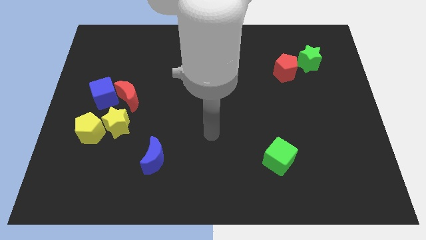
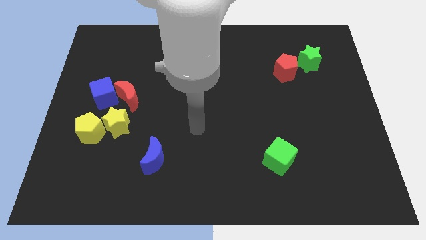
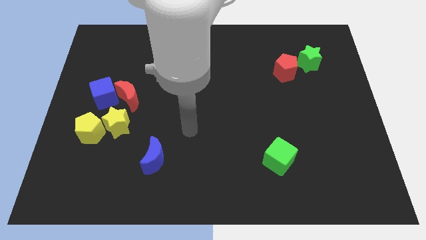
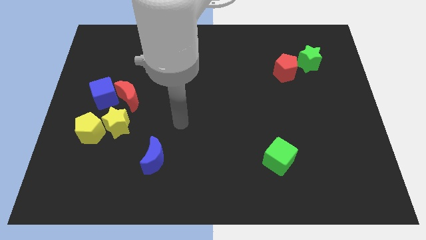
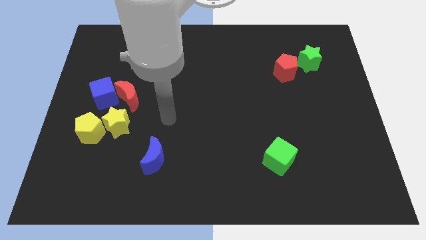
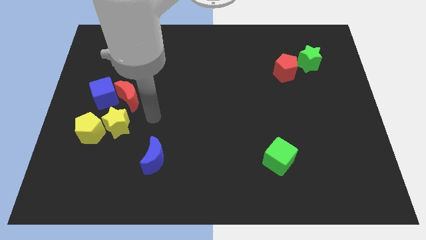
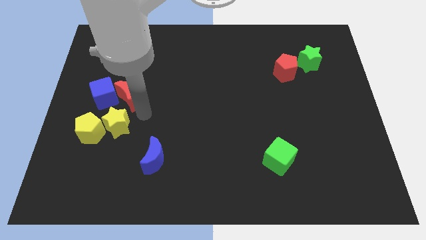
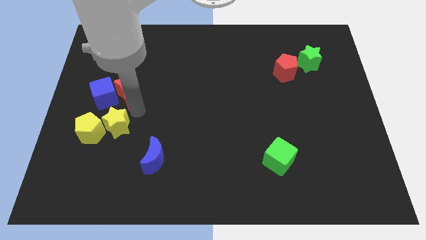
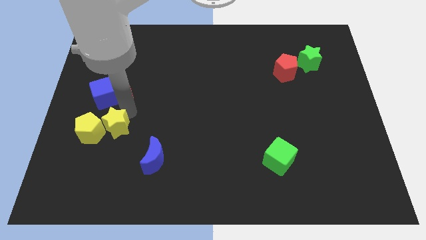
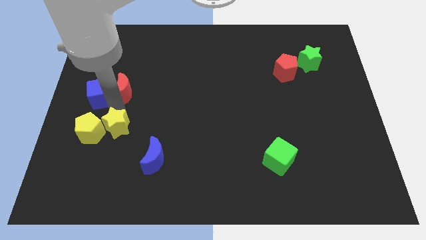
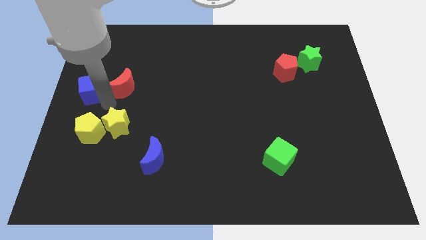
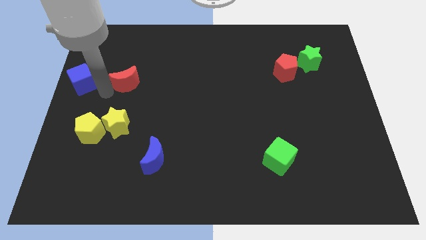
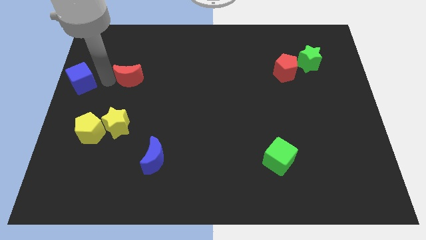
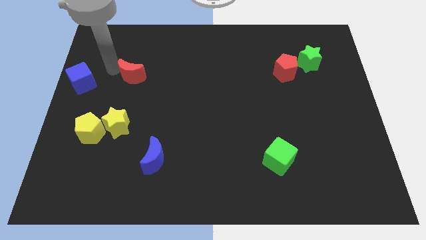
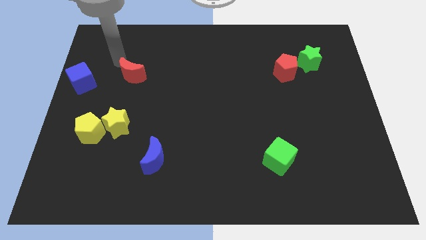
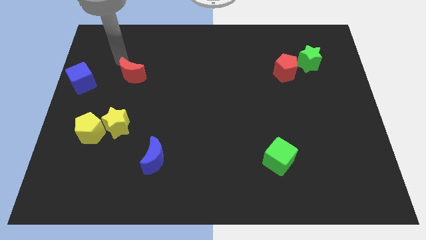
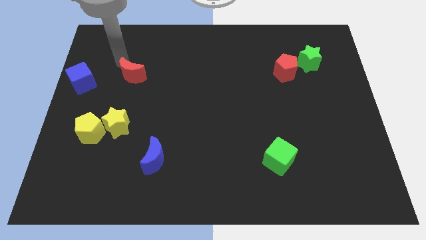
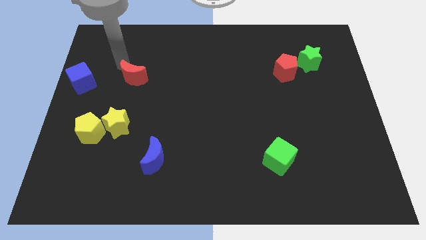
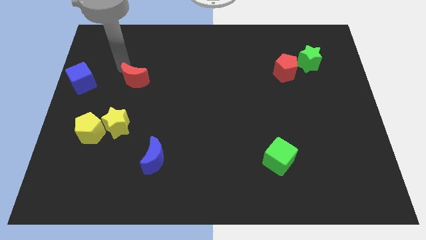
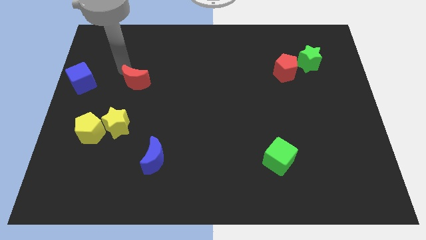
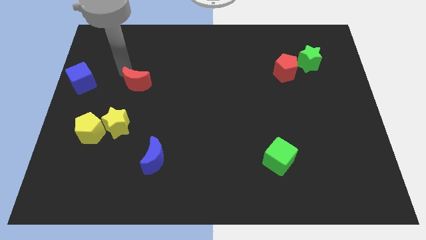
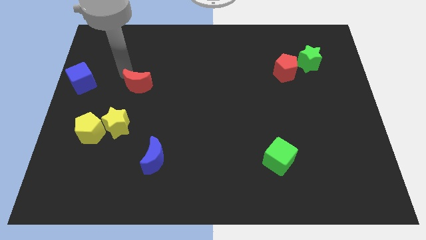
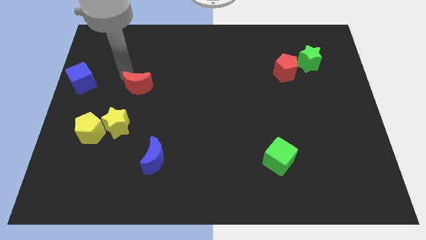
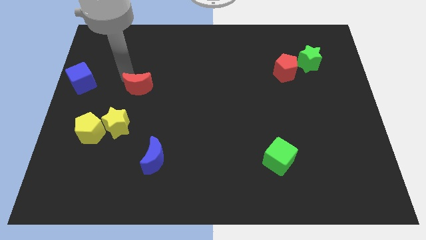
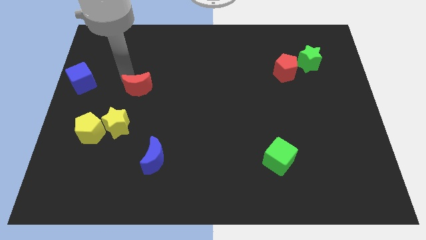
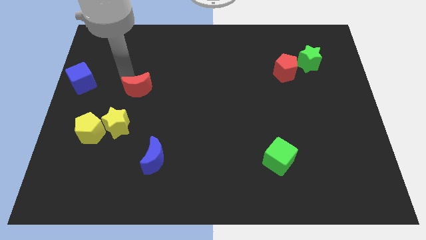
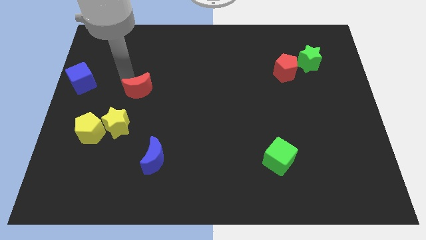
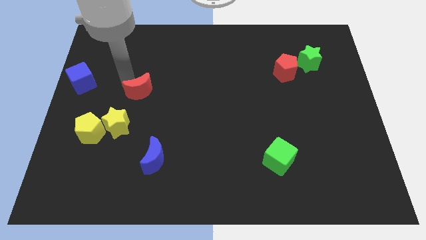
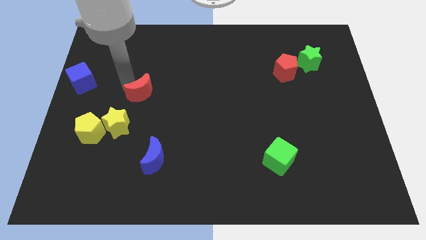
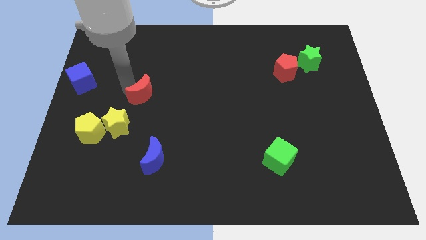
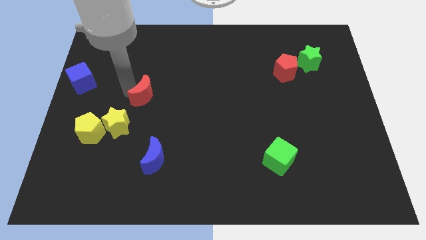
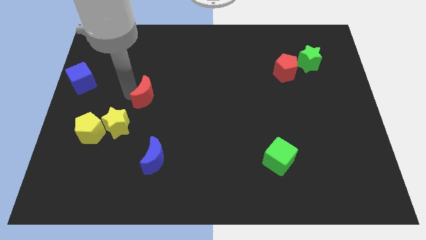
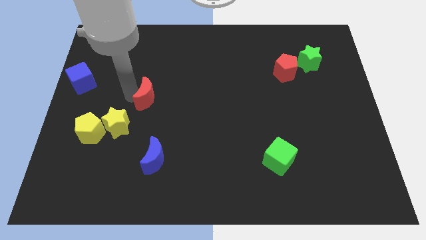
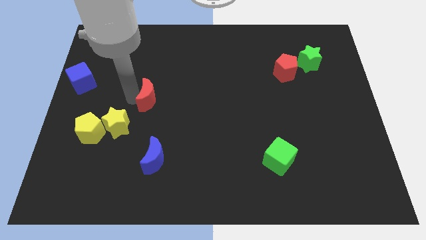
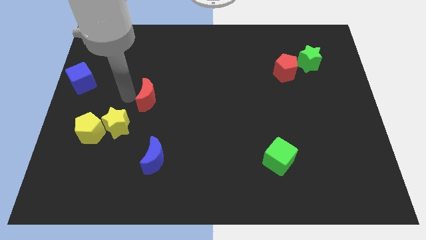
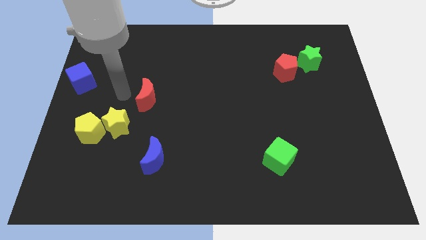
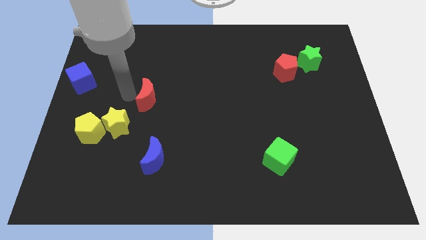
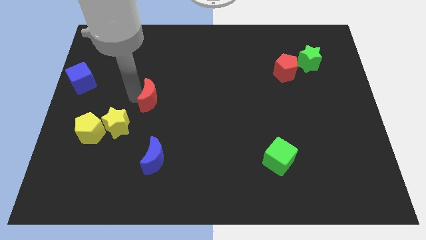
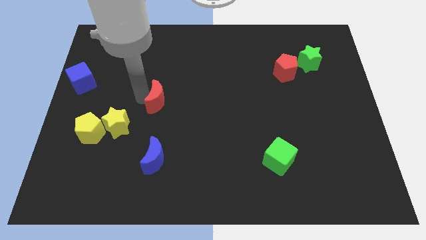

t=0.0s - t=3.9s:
push the red moon to the right a bit

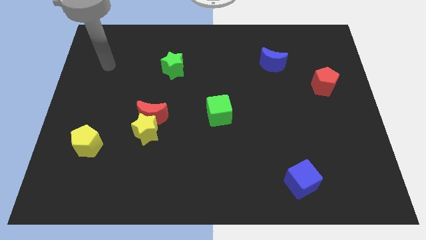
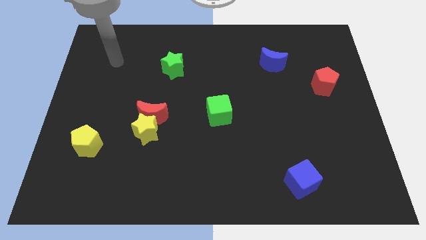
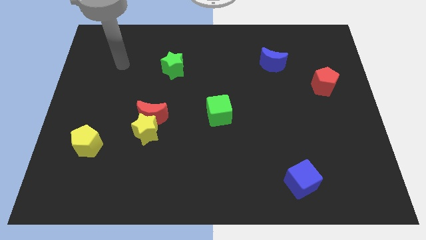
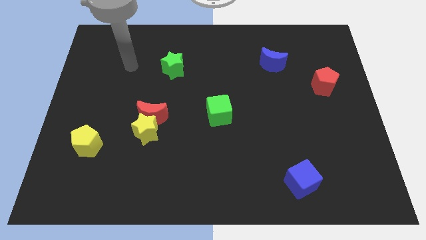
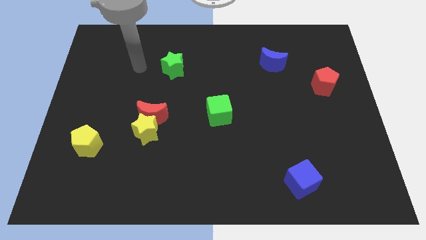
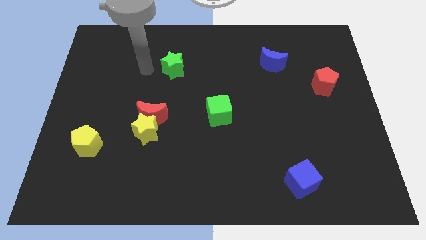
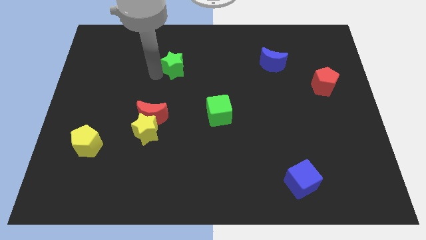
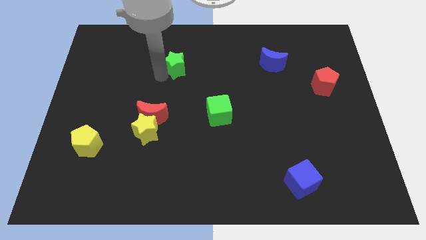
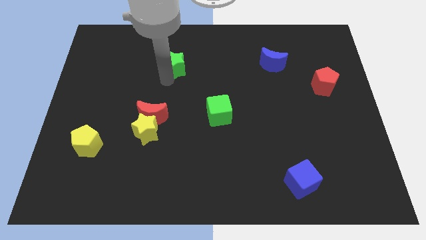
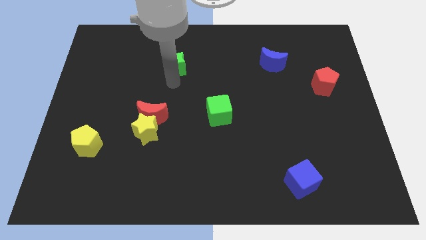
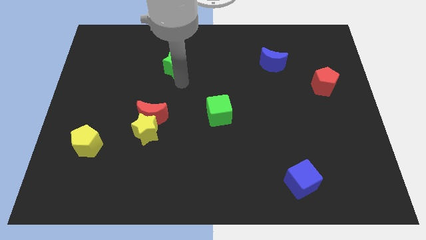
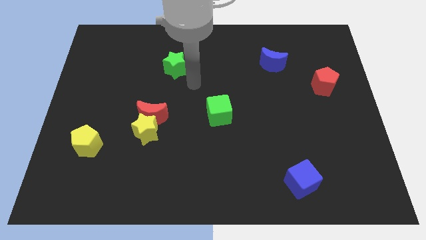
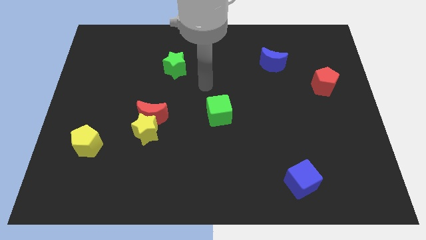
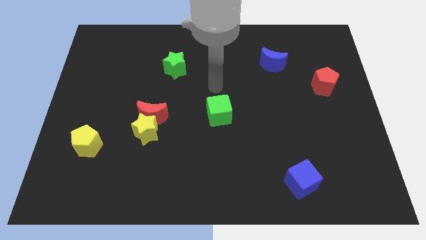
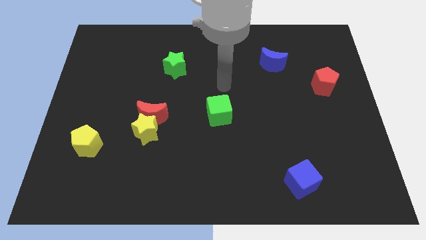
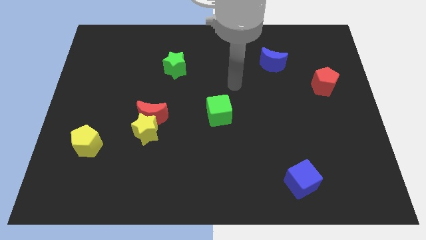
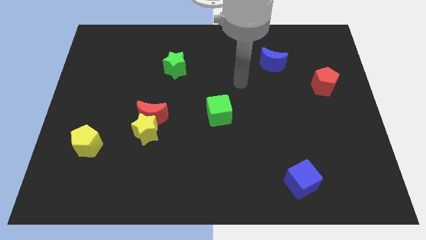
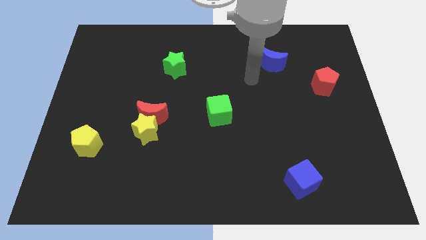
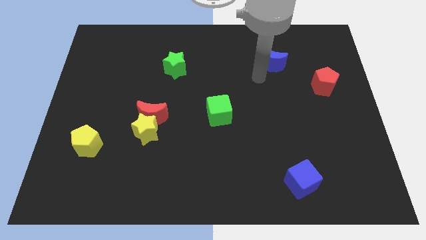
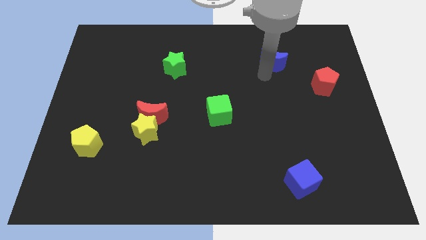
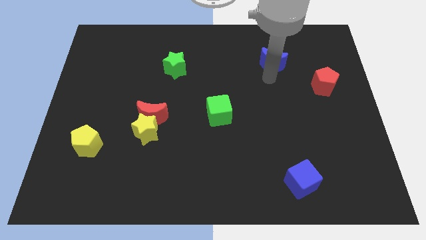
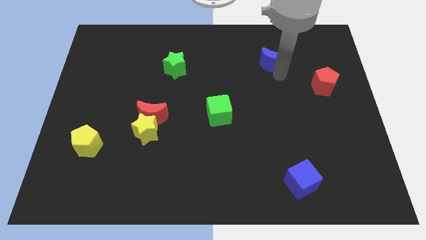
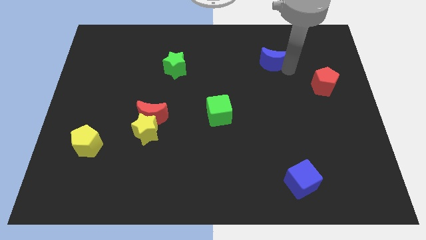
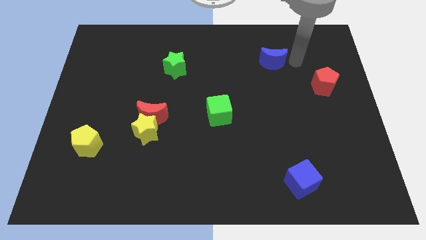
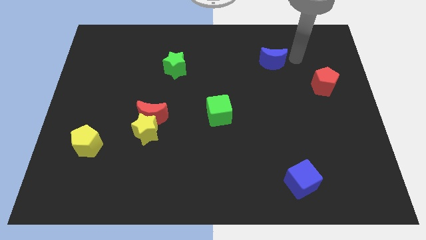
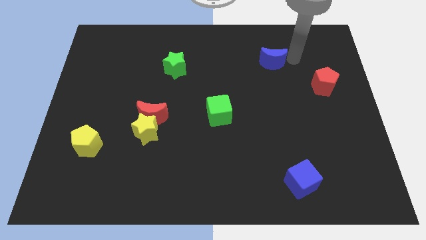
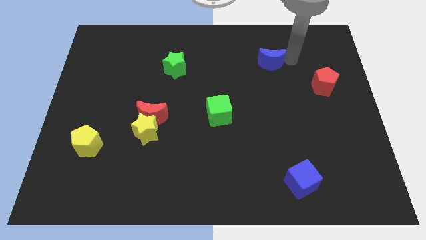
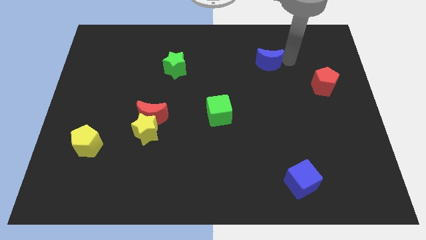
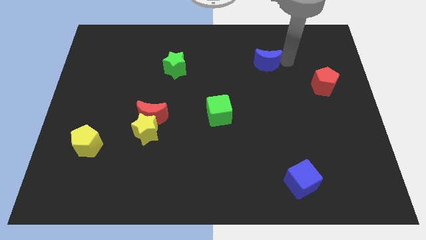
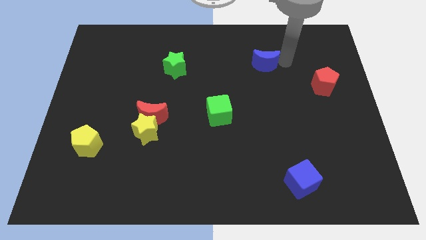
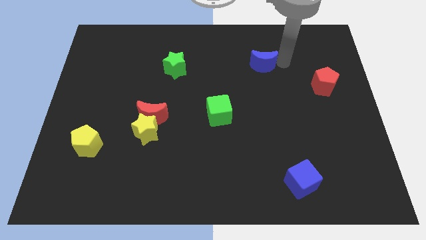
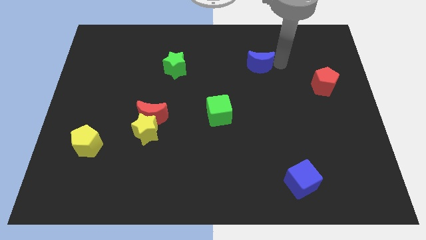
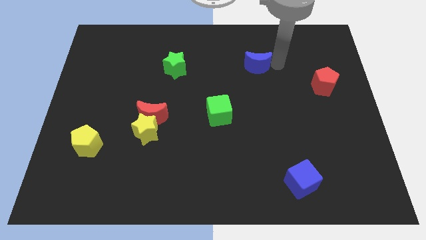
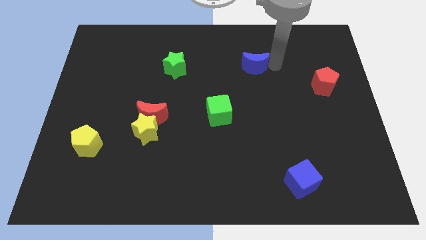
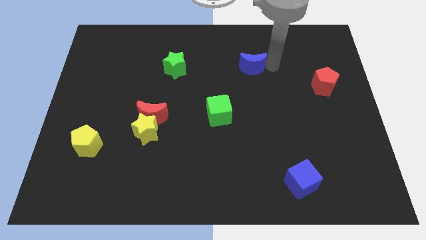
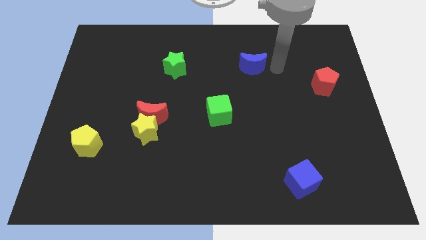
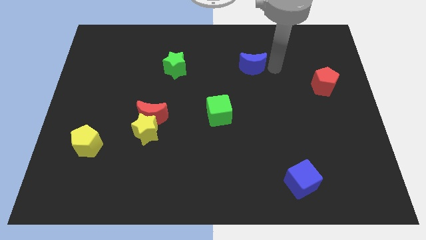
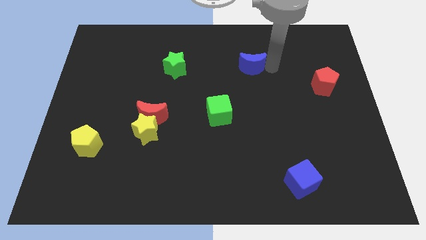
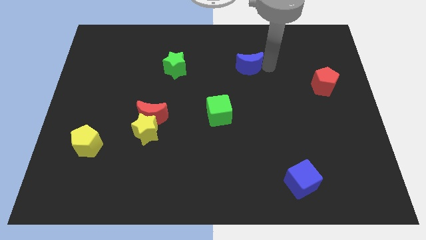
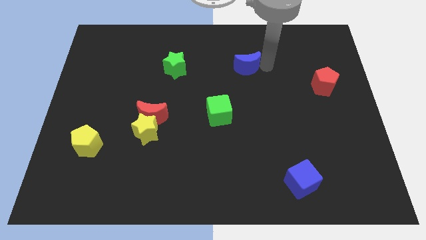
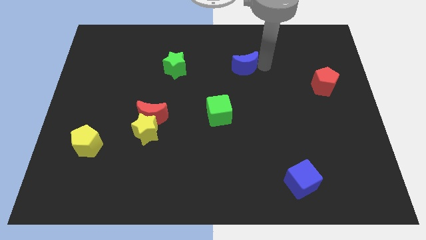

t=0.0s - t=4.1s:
push the blue moon slightly left

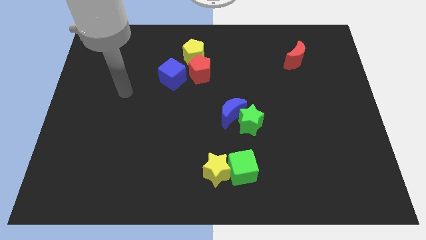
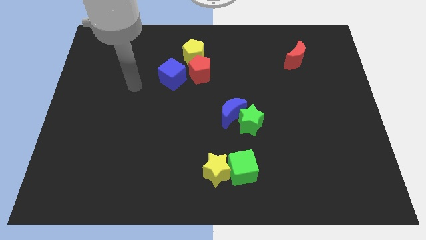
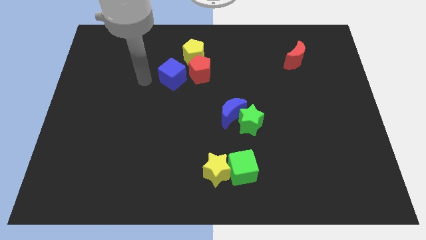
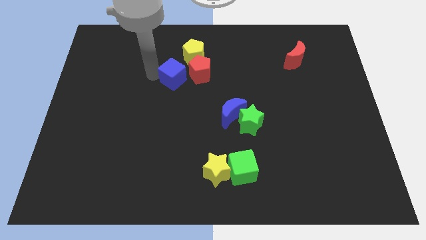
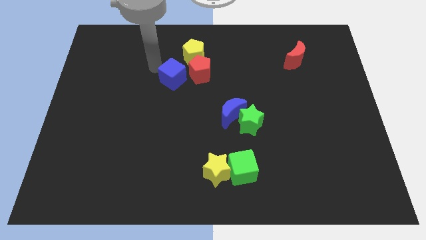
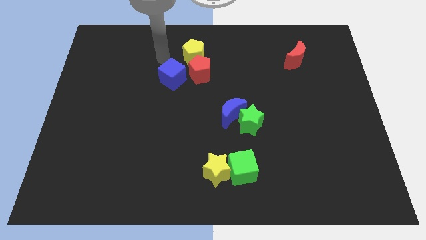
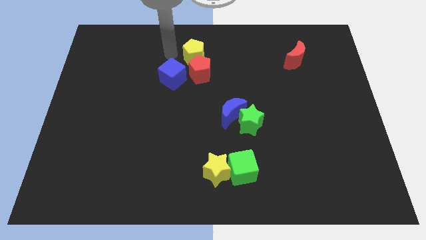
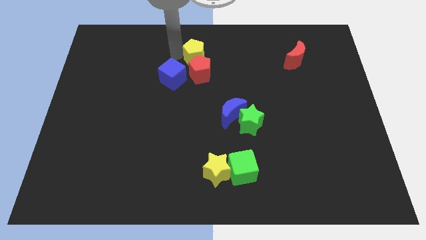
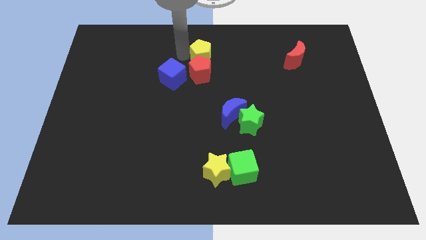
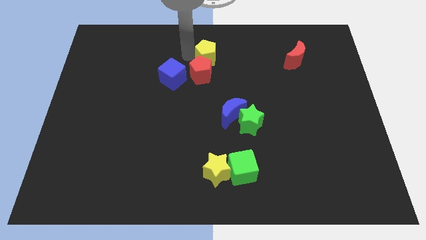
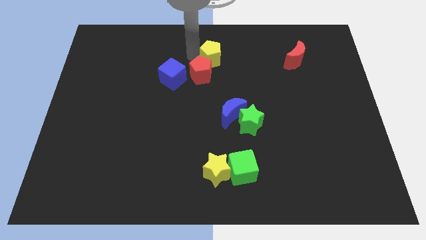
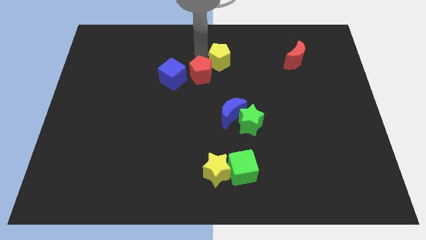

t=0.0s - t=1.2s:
move the yellow pentagon to the right somewhat
